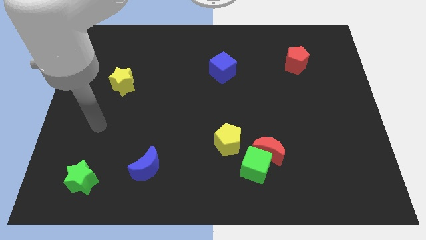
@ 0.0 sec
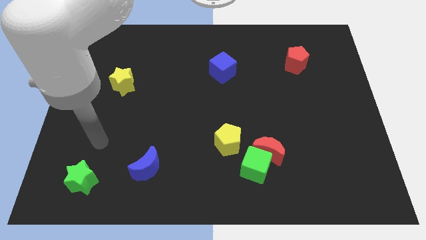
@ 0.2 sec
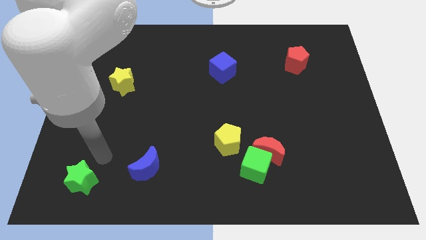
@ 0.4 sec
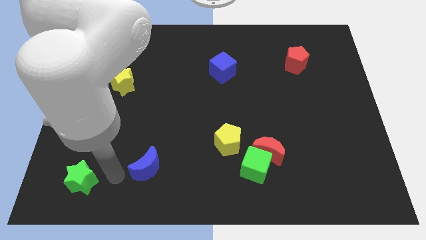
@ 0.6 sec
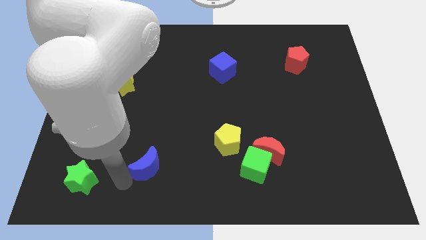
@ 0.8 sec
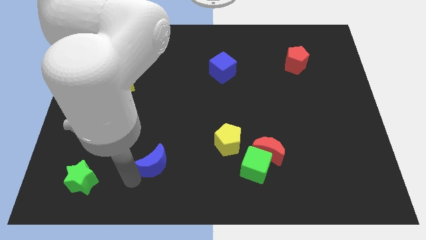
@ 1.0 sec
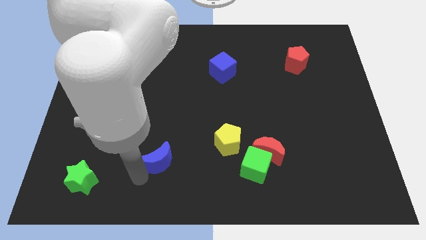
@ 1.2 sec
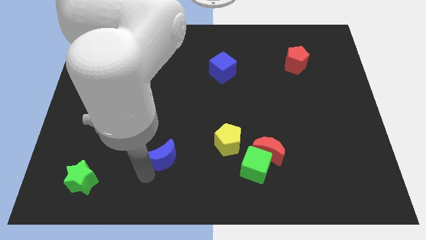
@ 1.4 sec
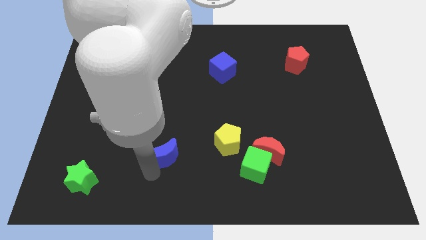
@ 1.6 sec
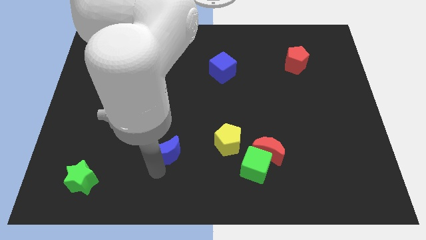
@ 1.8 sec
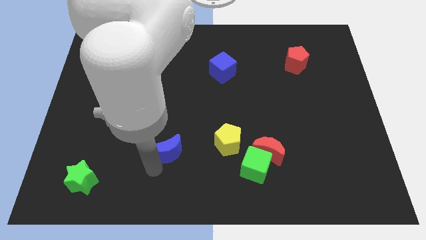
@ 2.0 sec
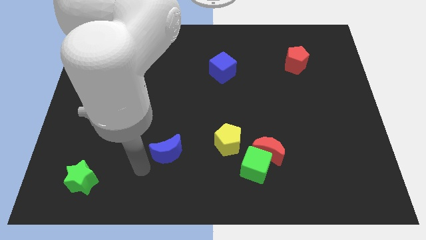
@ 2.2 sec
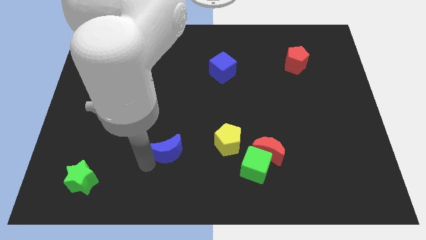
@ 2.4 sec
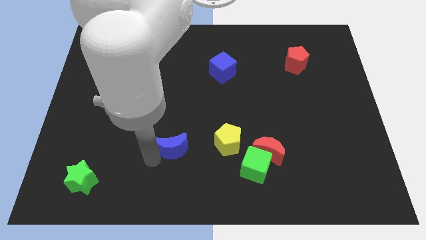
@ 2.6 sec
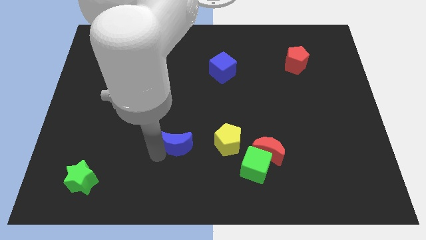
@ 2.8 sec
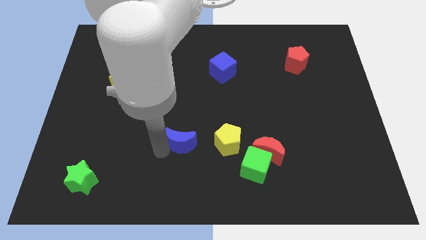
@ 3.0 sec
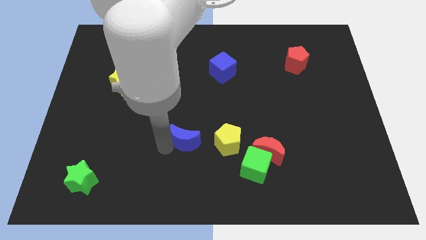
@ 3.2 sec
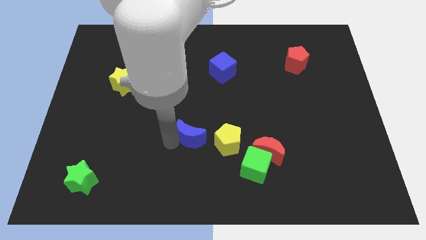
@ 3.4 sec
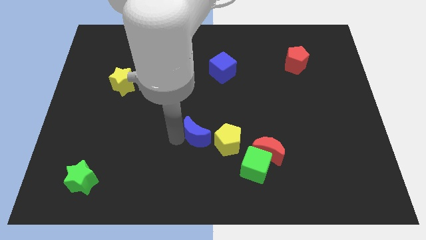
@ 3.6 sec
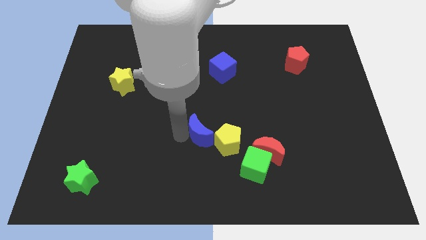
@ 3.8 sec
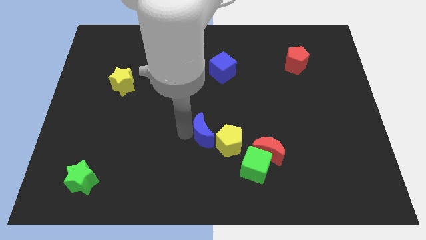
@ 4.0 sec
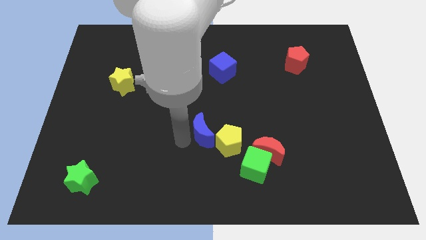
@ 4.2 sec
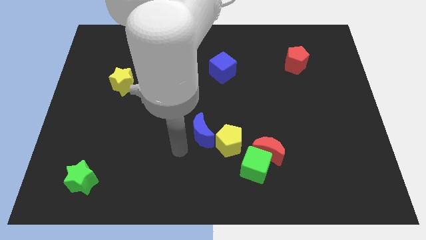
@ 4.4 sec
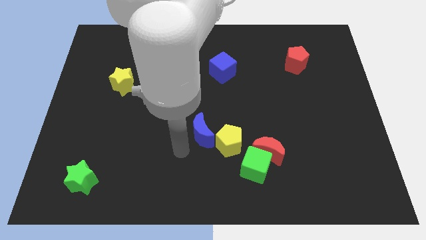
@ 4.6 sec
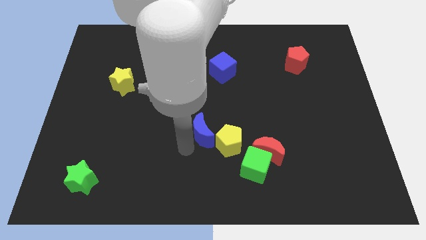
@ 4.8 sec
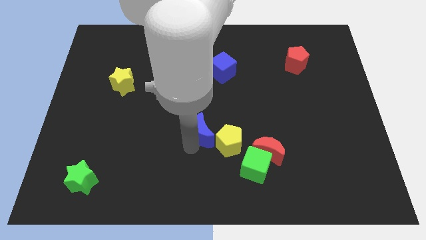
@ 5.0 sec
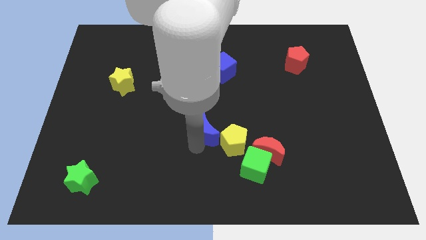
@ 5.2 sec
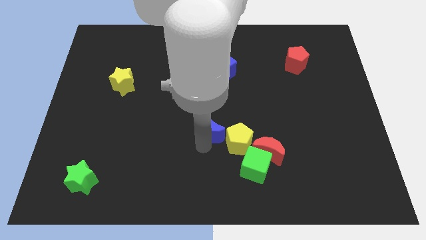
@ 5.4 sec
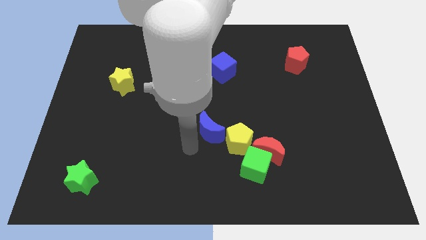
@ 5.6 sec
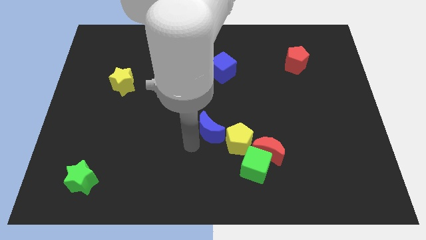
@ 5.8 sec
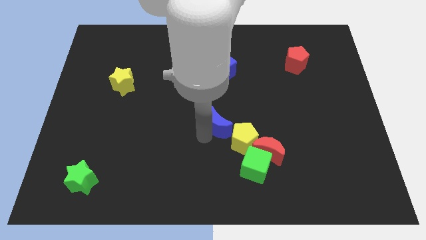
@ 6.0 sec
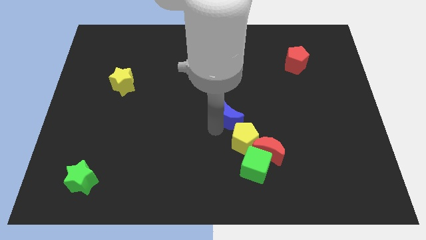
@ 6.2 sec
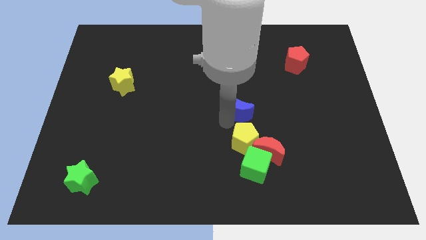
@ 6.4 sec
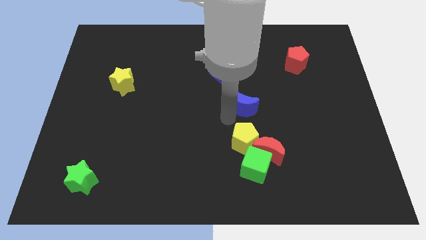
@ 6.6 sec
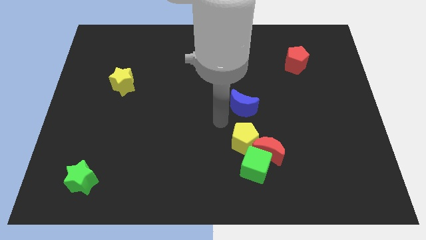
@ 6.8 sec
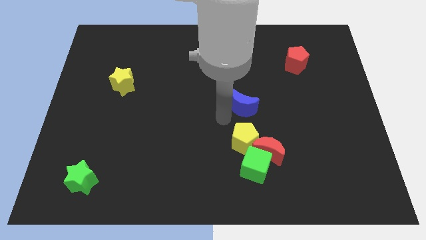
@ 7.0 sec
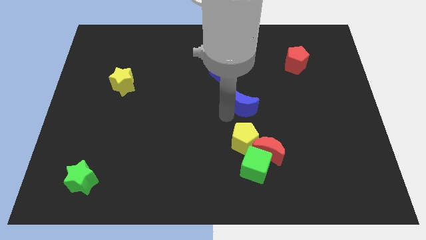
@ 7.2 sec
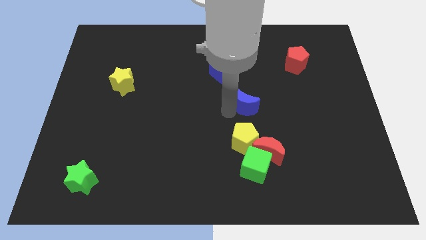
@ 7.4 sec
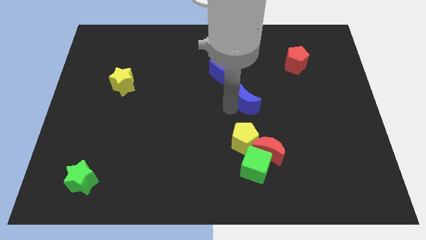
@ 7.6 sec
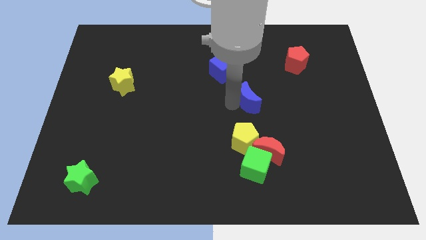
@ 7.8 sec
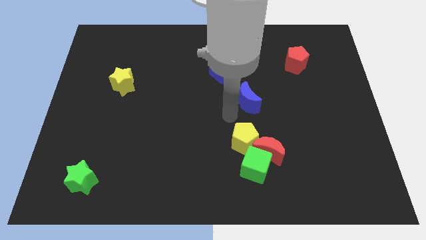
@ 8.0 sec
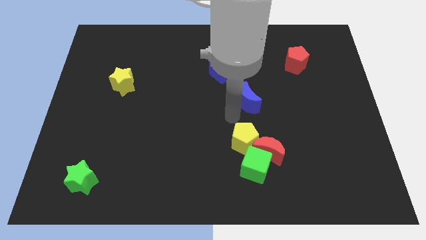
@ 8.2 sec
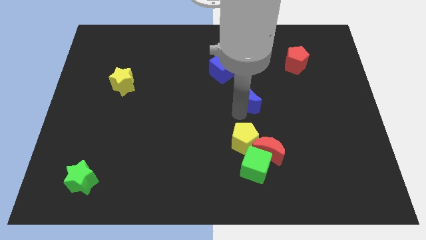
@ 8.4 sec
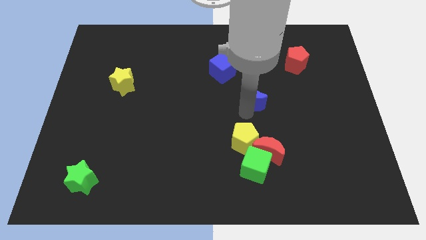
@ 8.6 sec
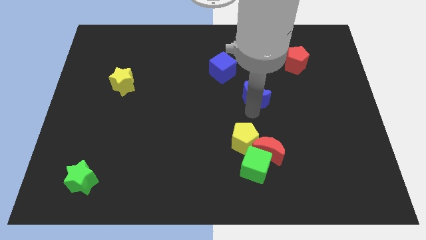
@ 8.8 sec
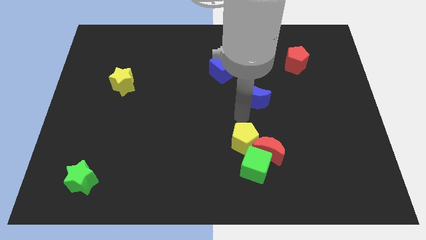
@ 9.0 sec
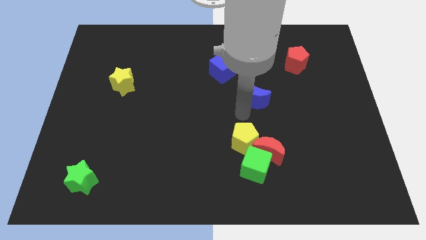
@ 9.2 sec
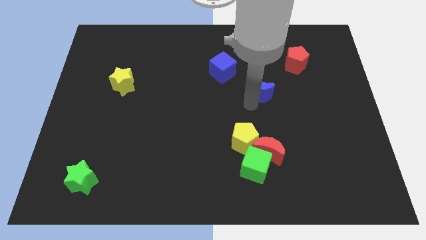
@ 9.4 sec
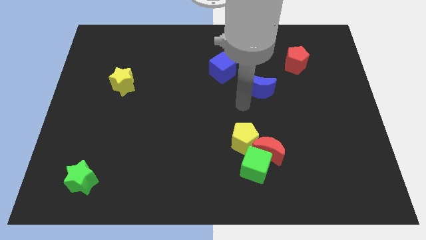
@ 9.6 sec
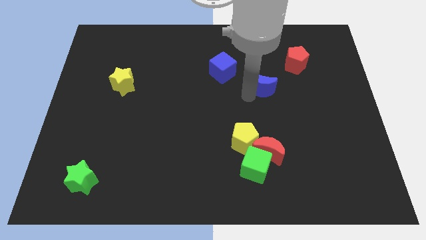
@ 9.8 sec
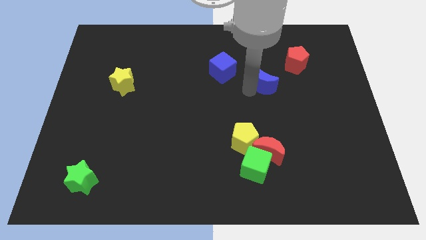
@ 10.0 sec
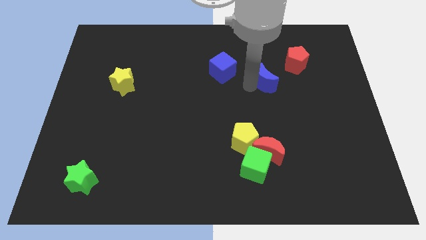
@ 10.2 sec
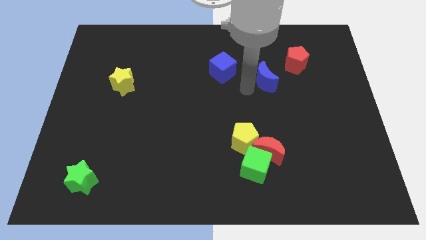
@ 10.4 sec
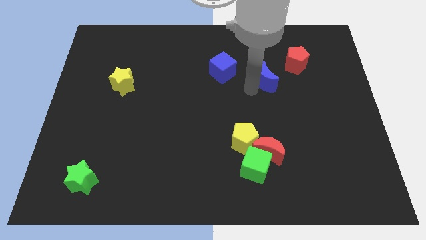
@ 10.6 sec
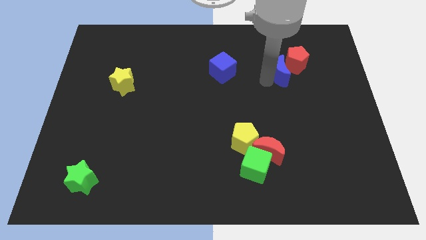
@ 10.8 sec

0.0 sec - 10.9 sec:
push the blue moon close to the red pentagon

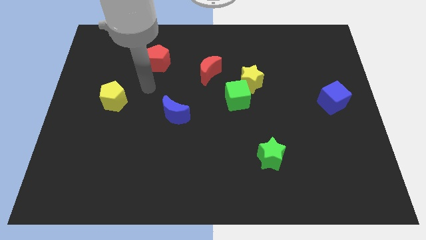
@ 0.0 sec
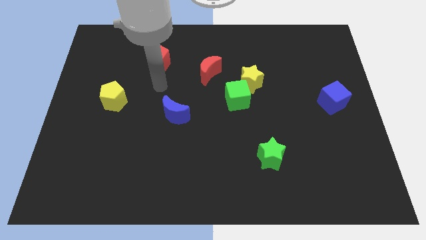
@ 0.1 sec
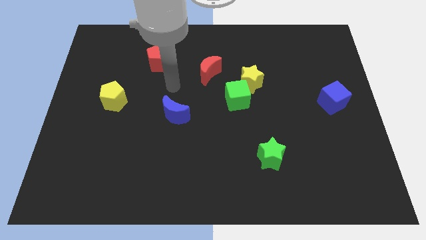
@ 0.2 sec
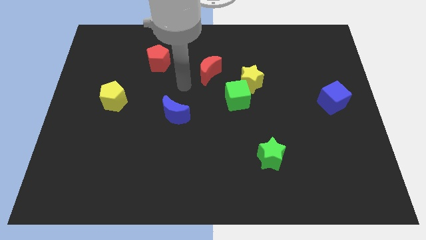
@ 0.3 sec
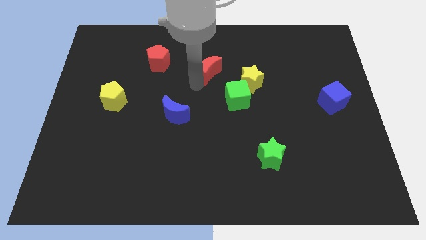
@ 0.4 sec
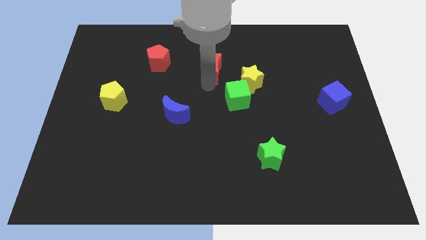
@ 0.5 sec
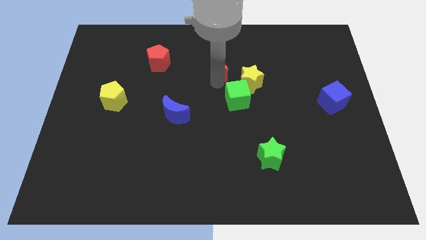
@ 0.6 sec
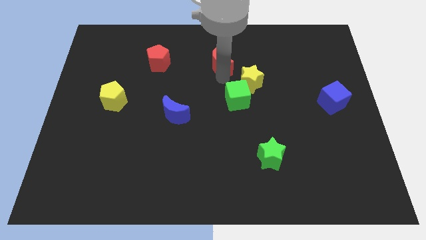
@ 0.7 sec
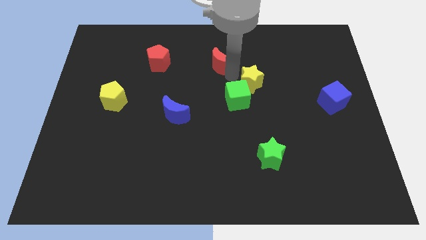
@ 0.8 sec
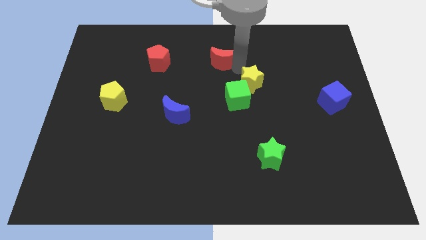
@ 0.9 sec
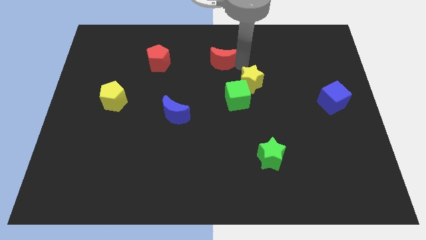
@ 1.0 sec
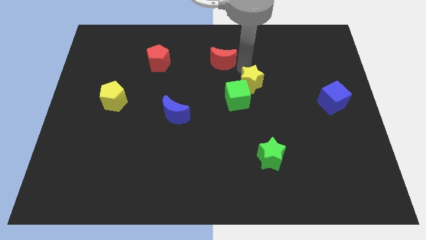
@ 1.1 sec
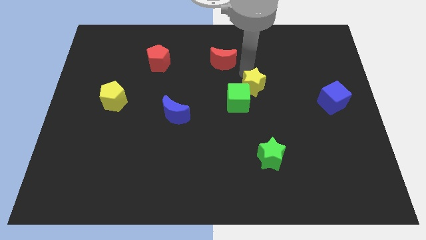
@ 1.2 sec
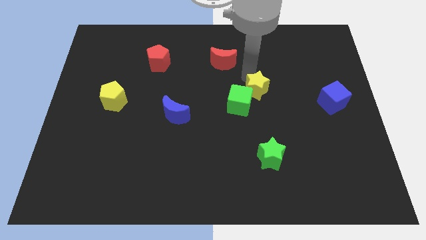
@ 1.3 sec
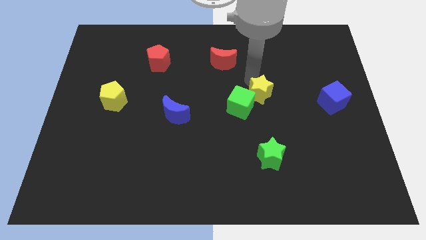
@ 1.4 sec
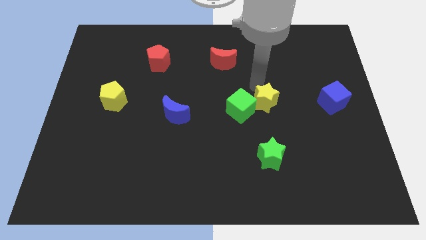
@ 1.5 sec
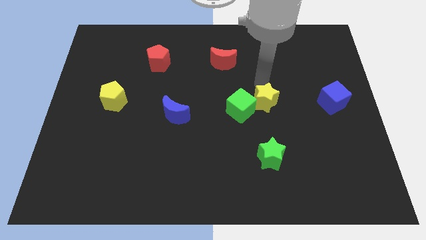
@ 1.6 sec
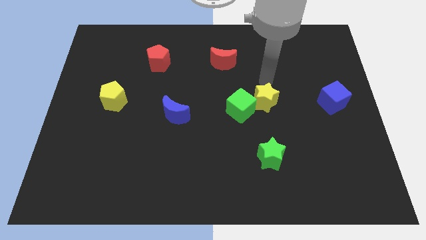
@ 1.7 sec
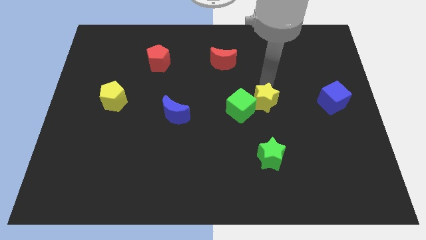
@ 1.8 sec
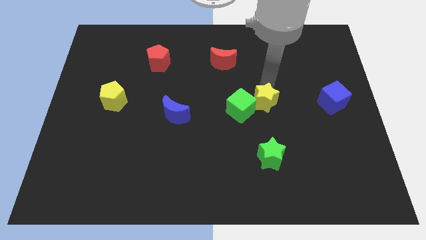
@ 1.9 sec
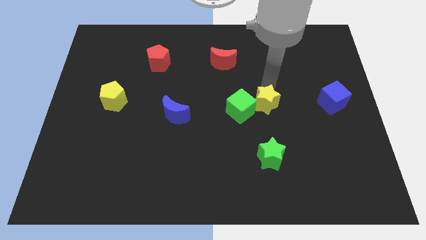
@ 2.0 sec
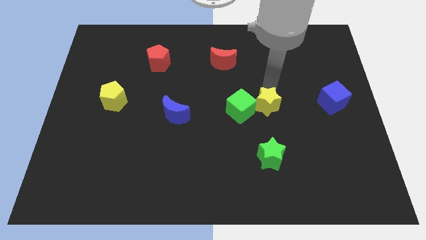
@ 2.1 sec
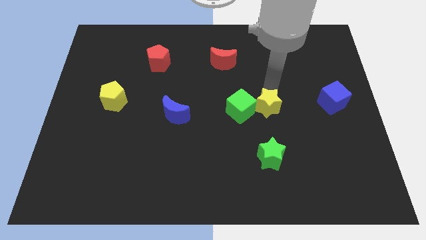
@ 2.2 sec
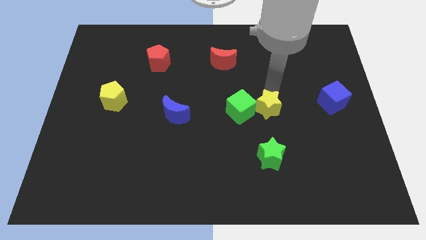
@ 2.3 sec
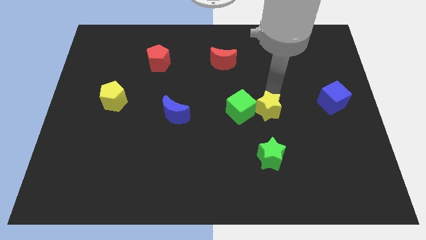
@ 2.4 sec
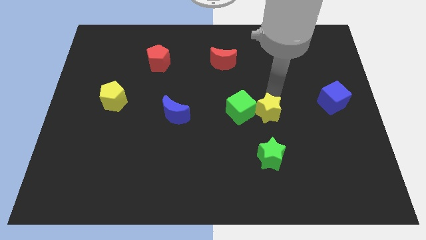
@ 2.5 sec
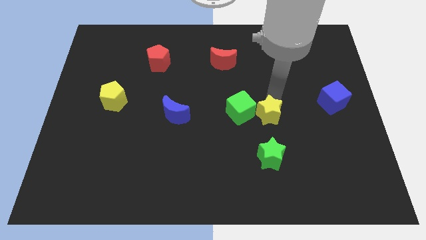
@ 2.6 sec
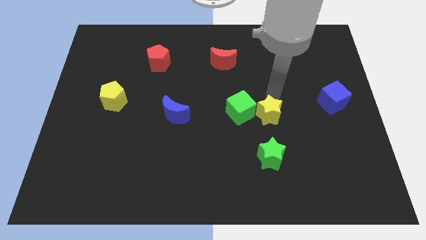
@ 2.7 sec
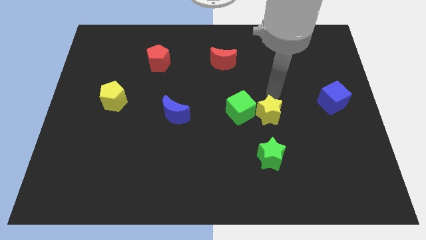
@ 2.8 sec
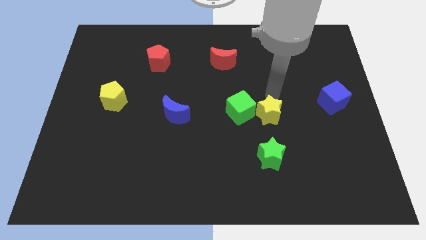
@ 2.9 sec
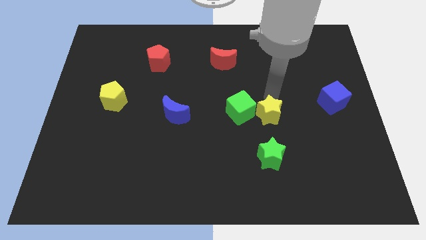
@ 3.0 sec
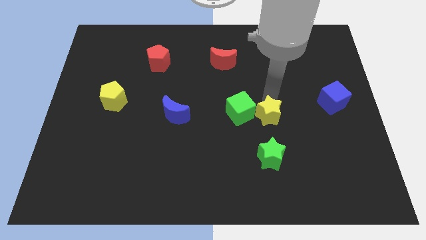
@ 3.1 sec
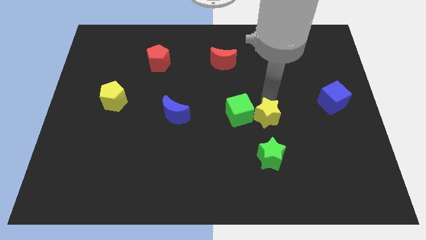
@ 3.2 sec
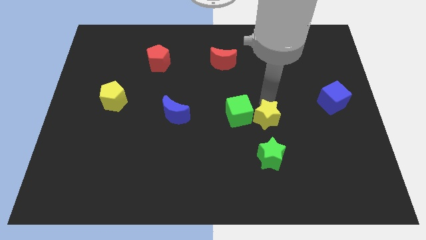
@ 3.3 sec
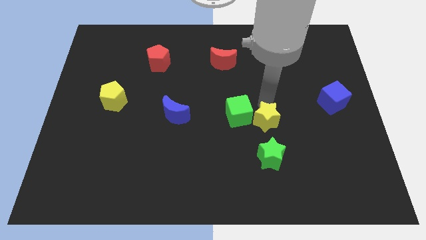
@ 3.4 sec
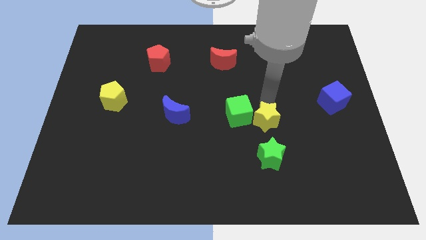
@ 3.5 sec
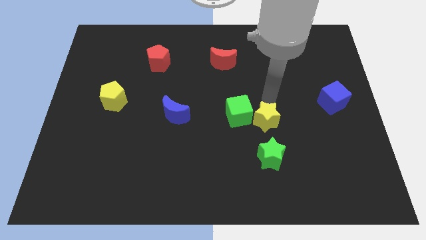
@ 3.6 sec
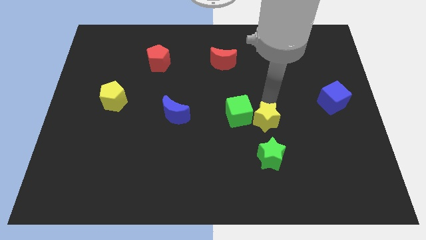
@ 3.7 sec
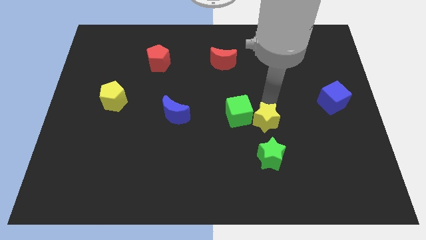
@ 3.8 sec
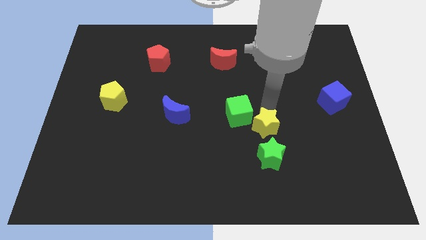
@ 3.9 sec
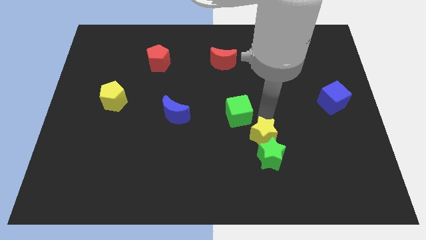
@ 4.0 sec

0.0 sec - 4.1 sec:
slide the yellow star towards the green star
